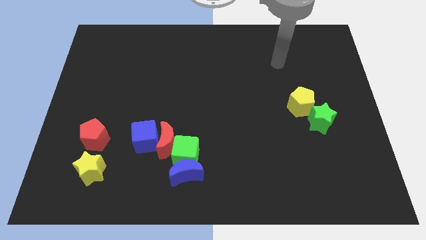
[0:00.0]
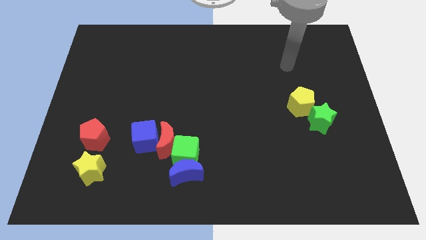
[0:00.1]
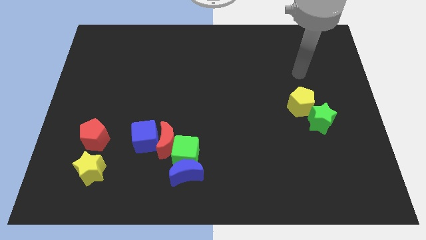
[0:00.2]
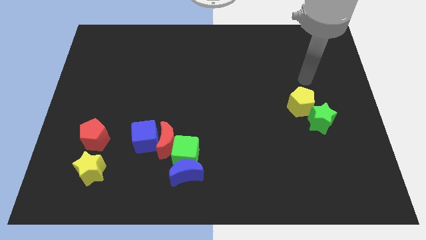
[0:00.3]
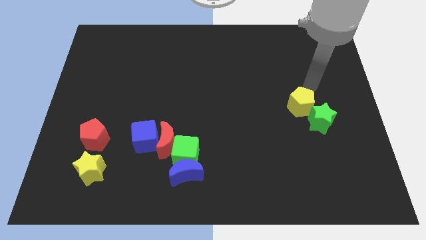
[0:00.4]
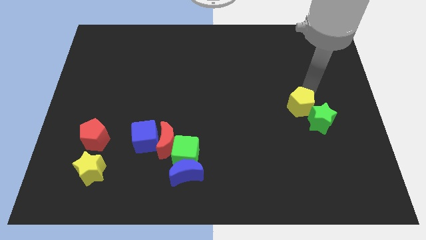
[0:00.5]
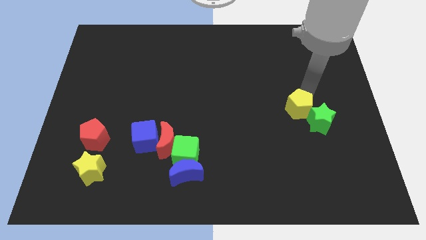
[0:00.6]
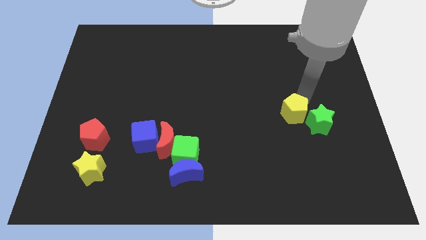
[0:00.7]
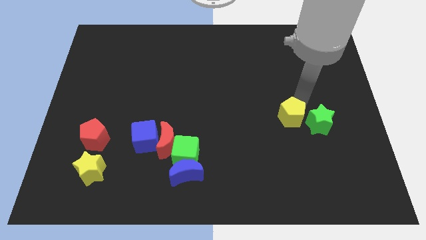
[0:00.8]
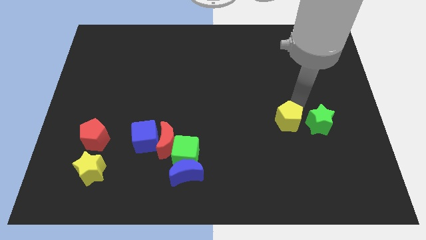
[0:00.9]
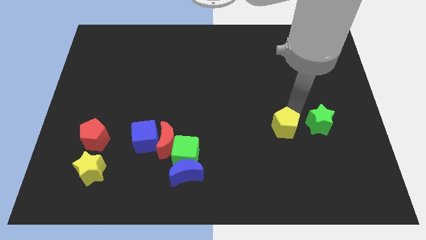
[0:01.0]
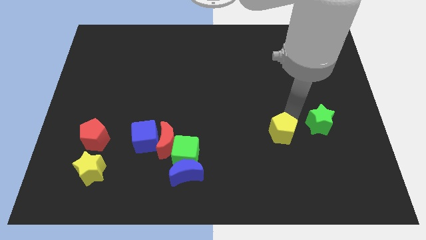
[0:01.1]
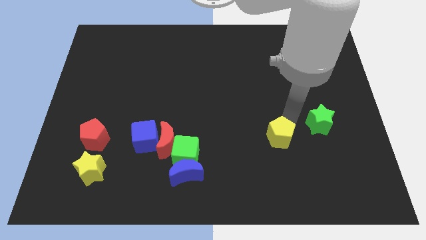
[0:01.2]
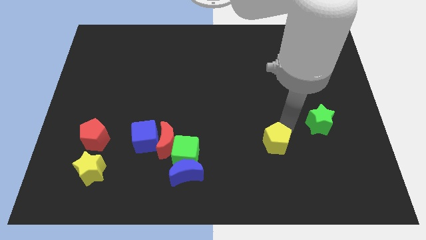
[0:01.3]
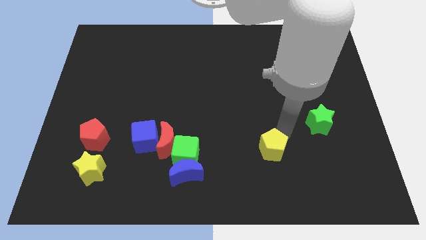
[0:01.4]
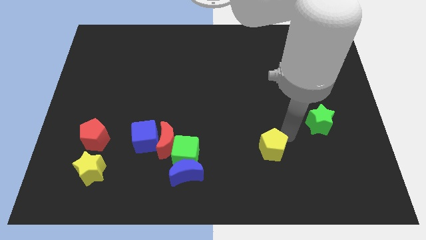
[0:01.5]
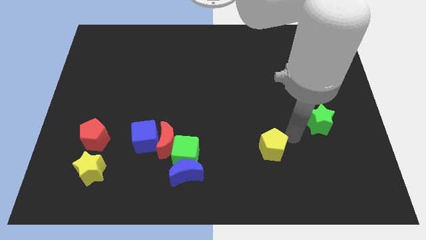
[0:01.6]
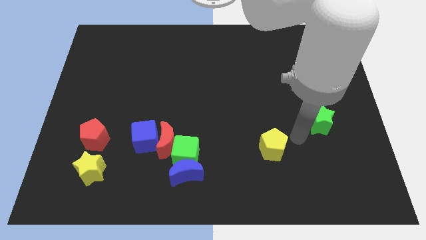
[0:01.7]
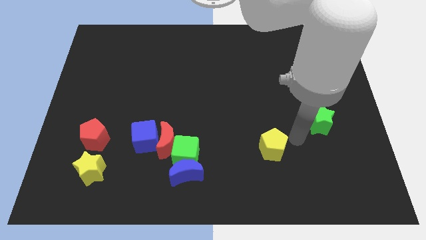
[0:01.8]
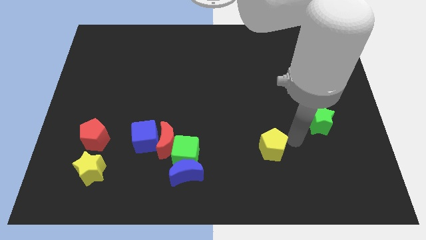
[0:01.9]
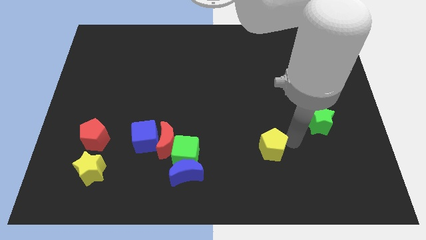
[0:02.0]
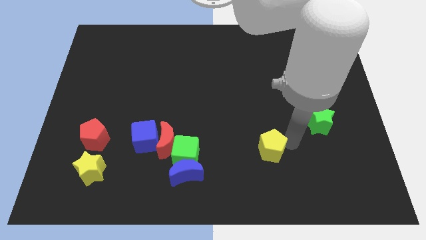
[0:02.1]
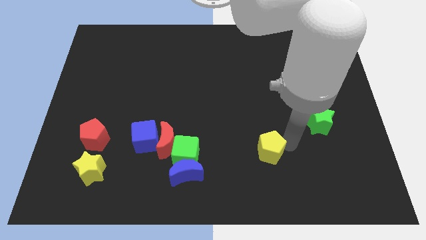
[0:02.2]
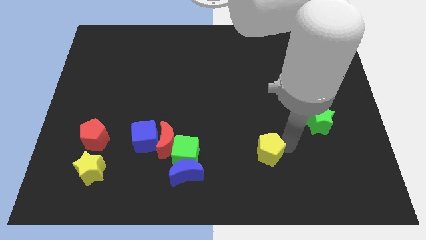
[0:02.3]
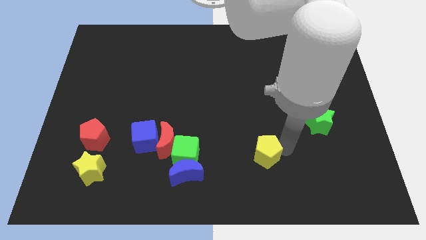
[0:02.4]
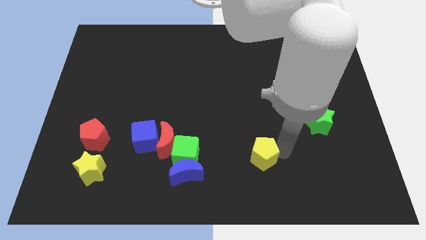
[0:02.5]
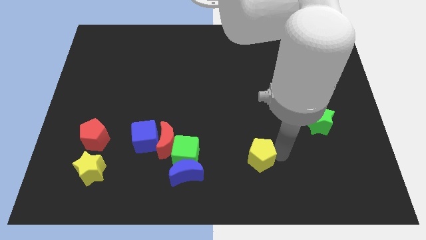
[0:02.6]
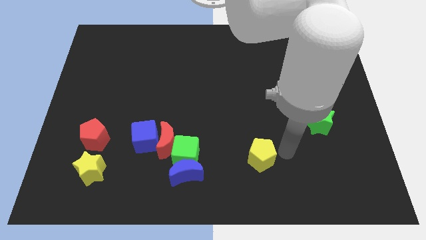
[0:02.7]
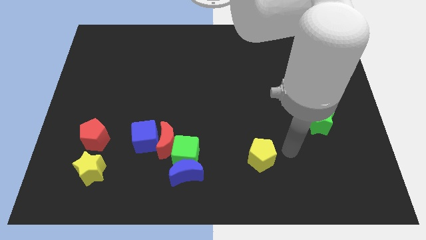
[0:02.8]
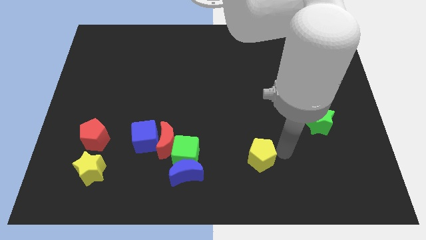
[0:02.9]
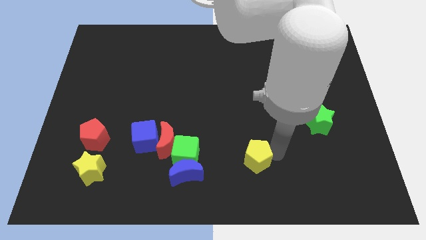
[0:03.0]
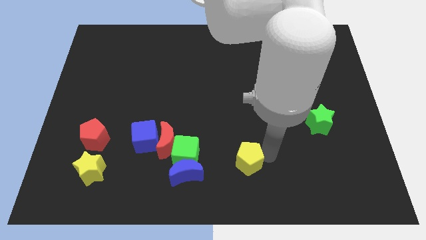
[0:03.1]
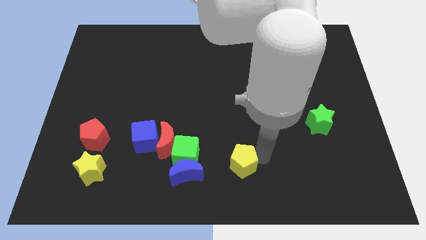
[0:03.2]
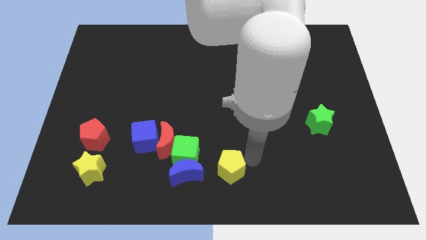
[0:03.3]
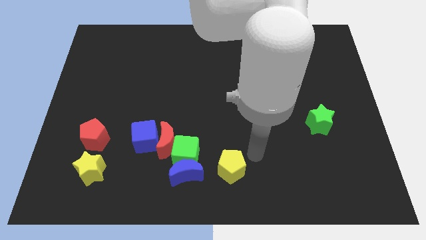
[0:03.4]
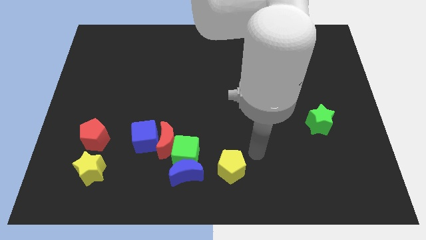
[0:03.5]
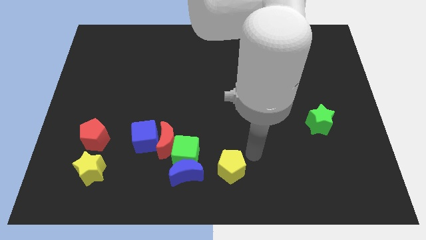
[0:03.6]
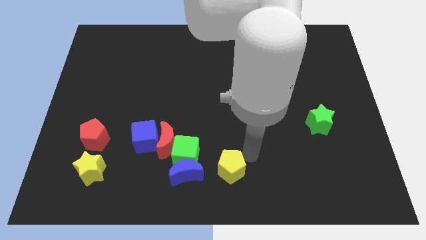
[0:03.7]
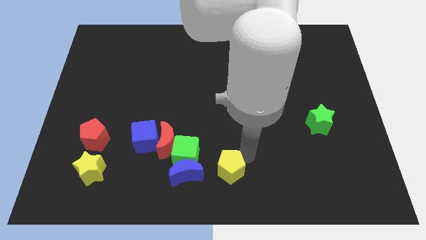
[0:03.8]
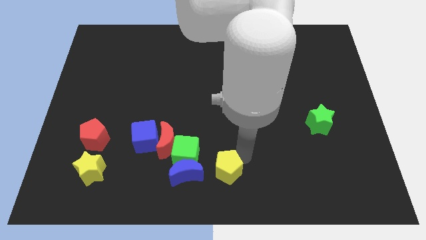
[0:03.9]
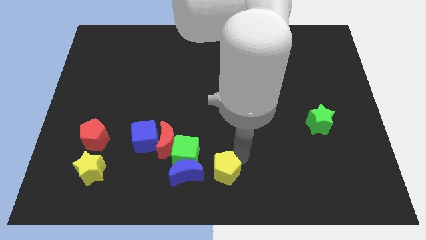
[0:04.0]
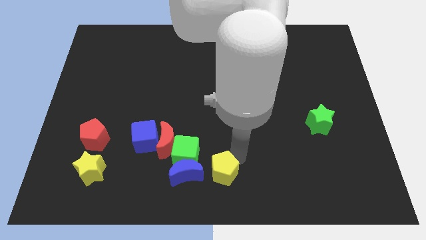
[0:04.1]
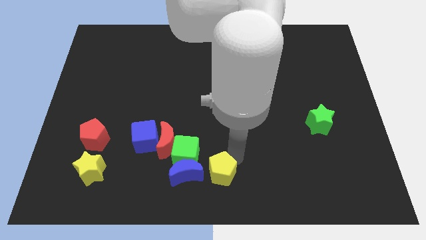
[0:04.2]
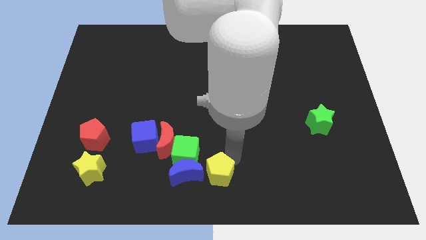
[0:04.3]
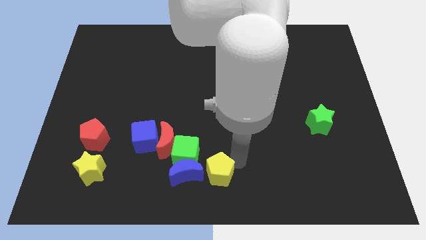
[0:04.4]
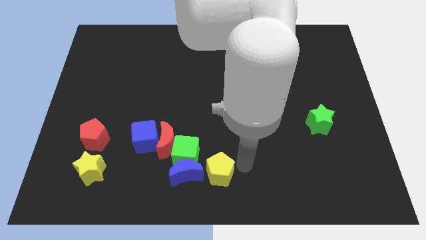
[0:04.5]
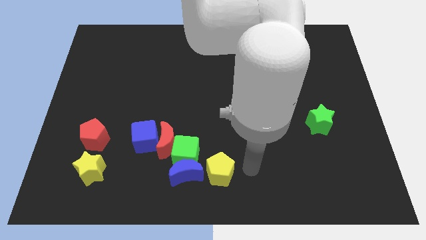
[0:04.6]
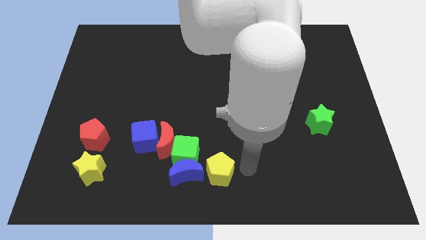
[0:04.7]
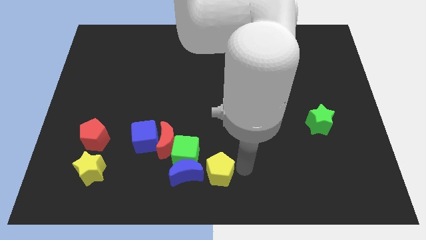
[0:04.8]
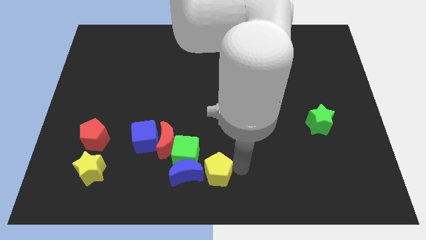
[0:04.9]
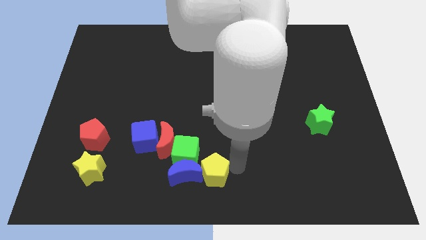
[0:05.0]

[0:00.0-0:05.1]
move the yellow pentagon close to the blue moon

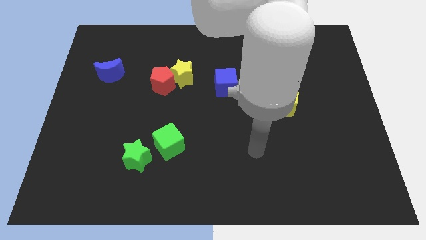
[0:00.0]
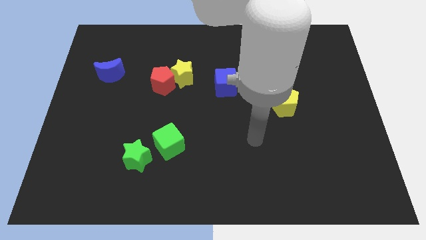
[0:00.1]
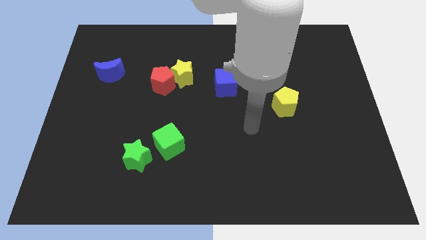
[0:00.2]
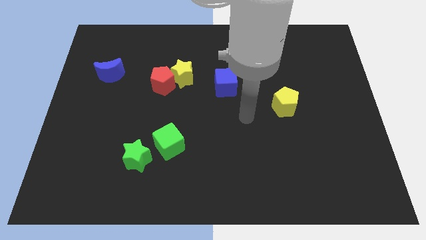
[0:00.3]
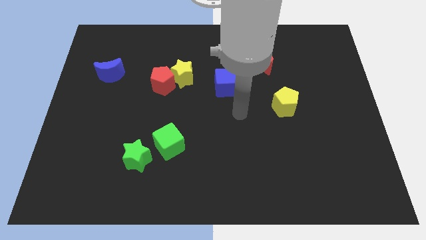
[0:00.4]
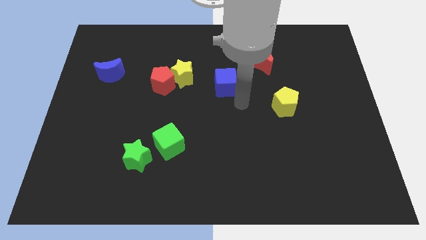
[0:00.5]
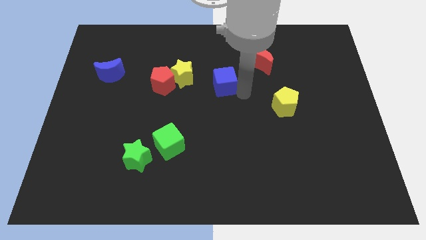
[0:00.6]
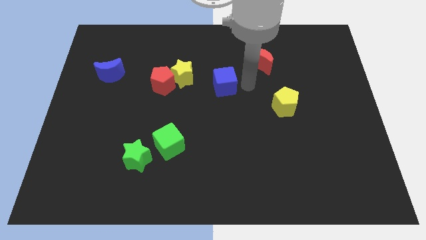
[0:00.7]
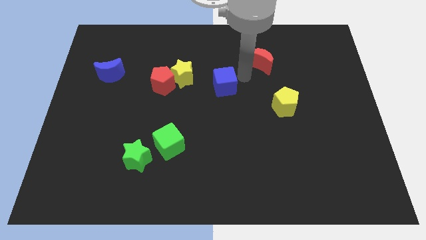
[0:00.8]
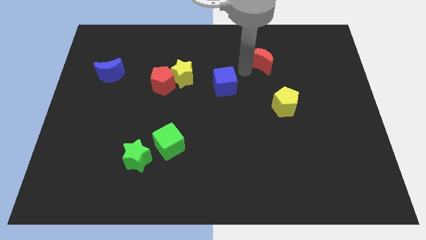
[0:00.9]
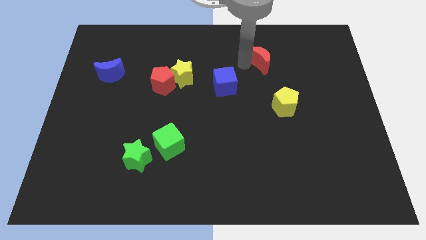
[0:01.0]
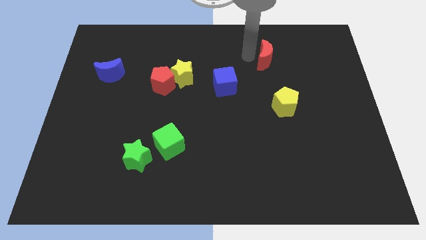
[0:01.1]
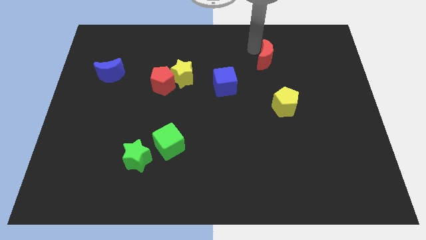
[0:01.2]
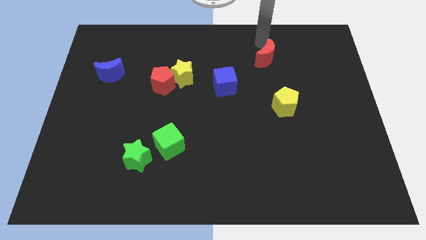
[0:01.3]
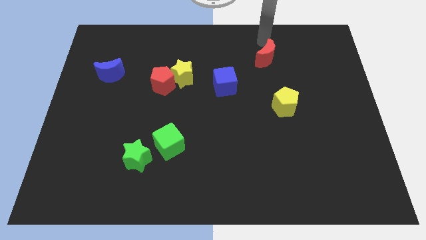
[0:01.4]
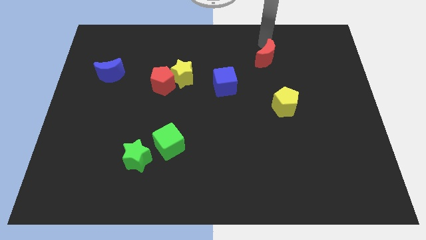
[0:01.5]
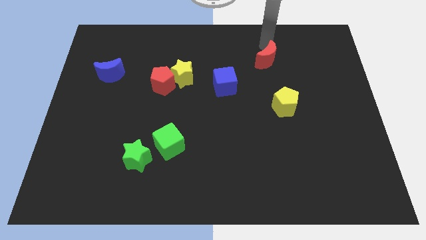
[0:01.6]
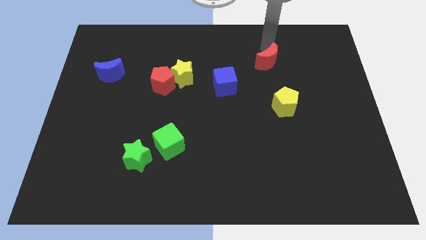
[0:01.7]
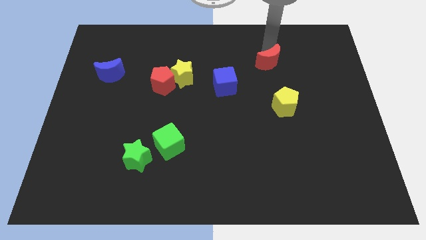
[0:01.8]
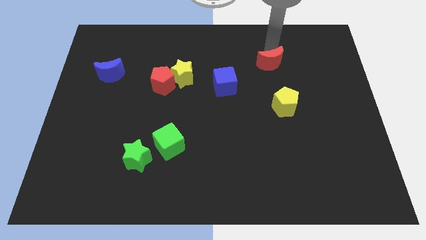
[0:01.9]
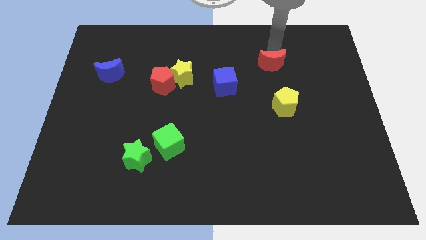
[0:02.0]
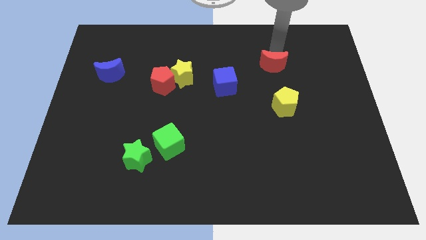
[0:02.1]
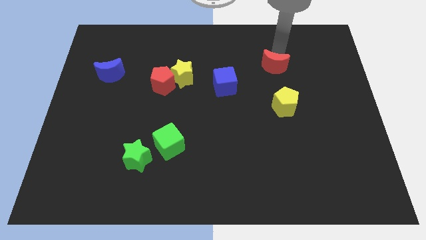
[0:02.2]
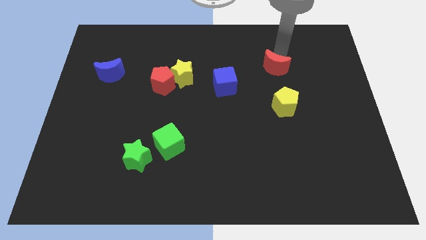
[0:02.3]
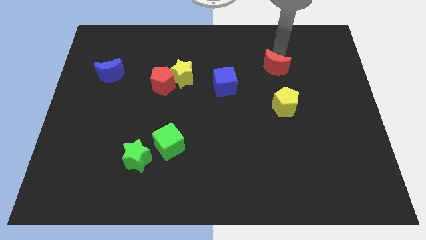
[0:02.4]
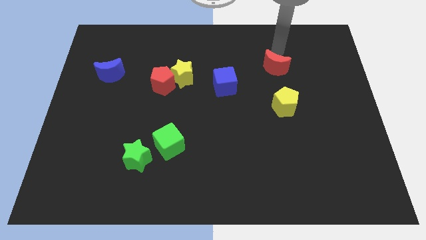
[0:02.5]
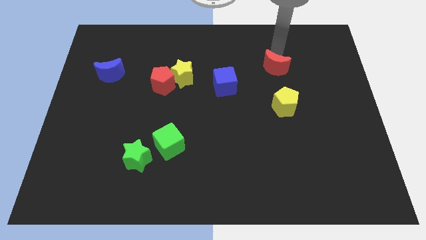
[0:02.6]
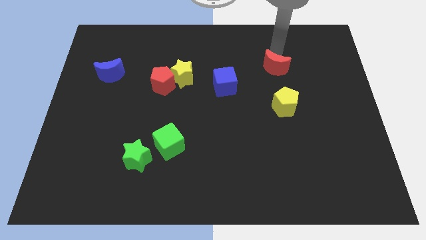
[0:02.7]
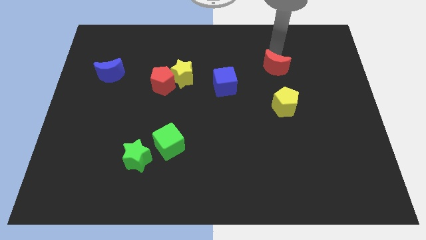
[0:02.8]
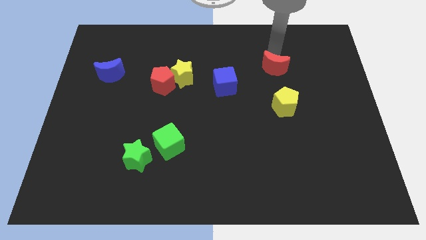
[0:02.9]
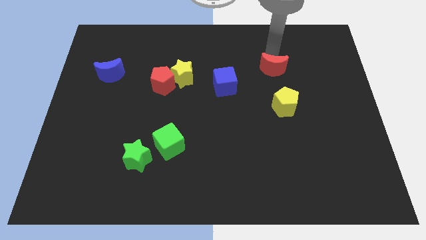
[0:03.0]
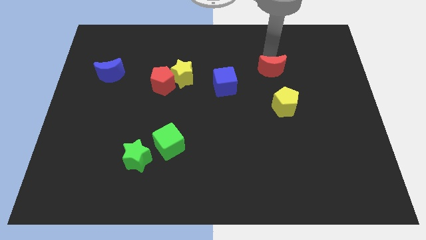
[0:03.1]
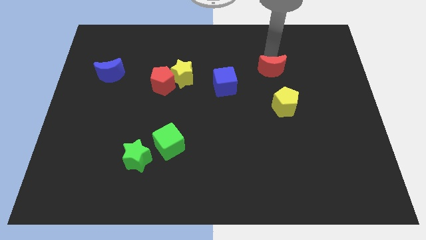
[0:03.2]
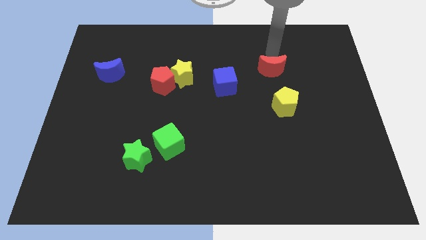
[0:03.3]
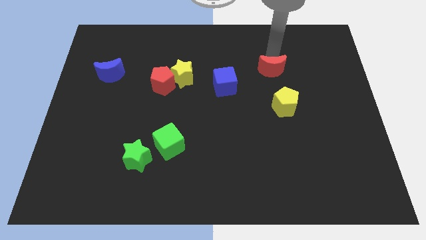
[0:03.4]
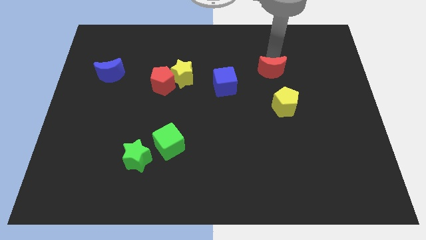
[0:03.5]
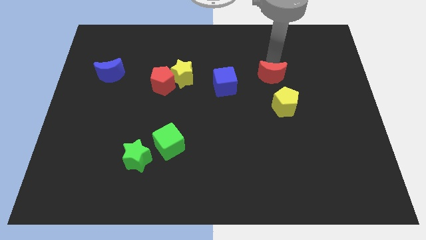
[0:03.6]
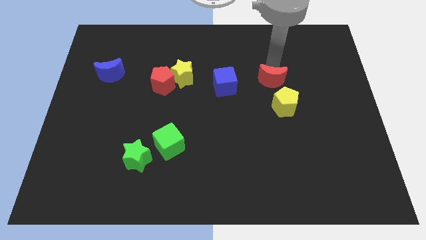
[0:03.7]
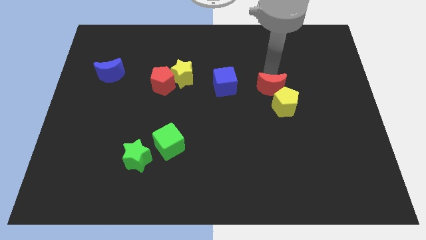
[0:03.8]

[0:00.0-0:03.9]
move the red moon close to the yellow pentagon
